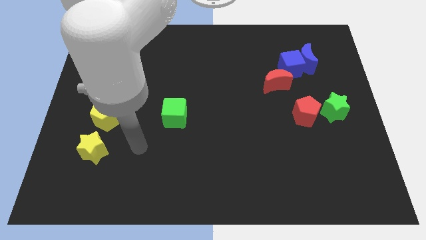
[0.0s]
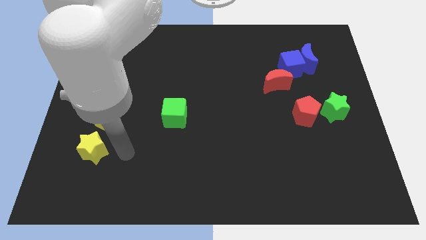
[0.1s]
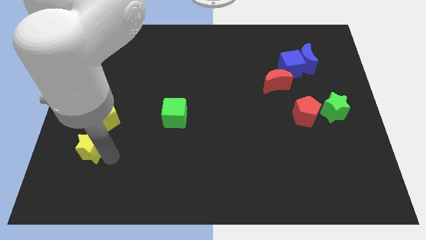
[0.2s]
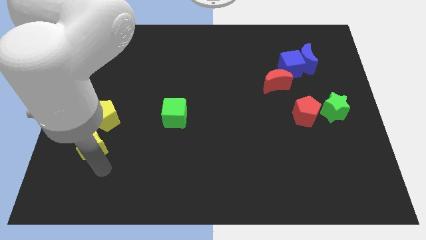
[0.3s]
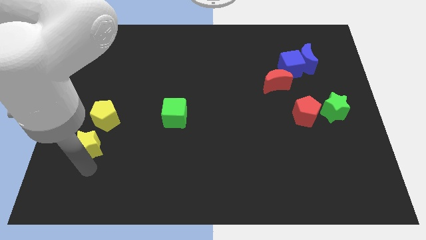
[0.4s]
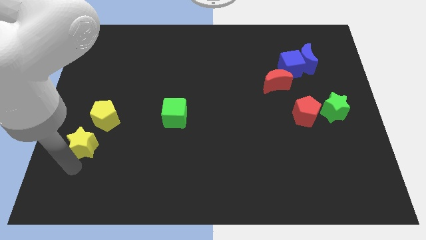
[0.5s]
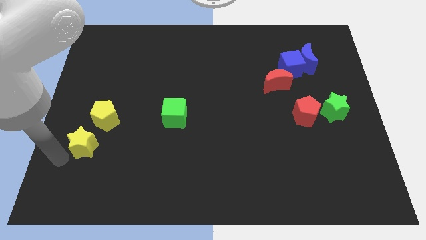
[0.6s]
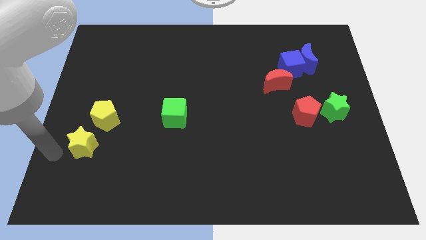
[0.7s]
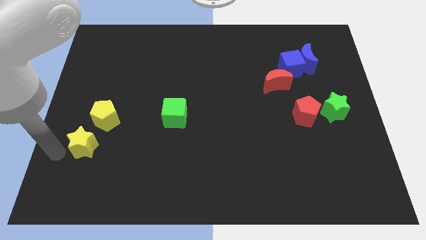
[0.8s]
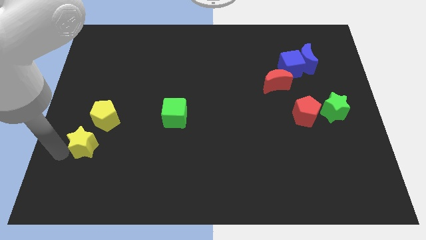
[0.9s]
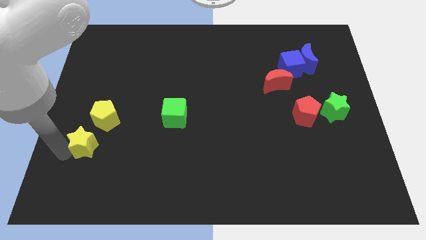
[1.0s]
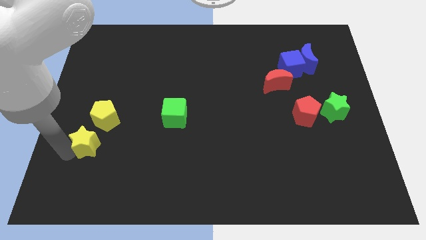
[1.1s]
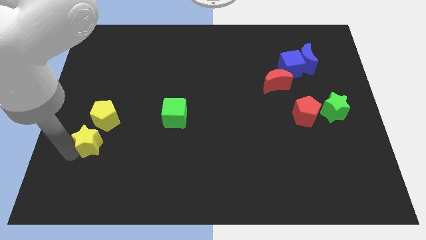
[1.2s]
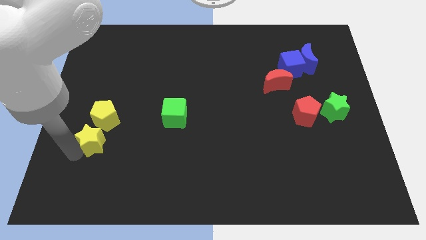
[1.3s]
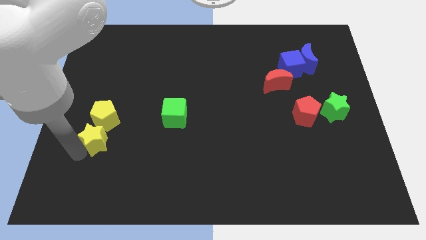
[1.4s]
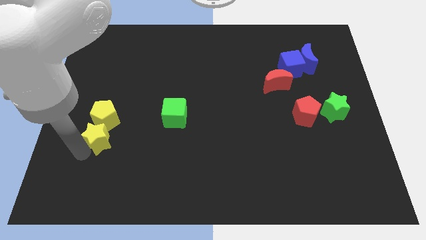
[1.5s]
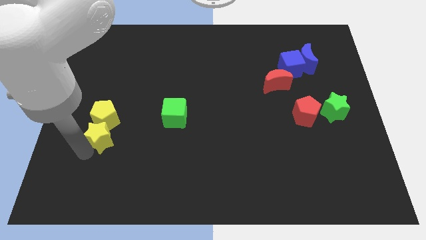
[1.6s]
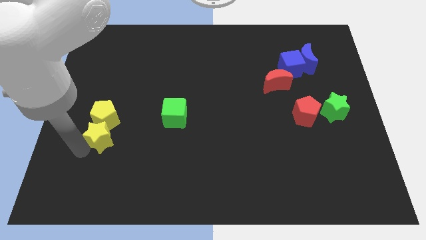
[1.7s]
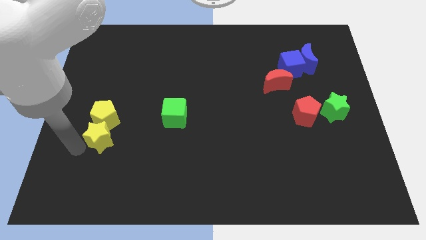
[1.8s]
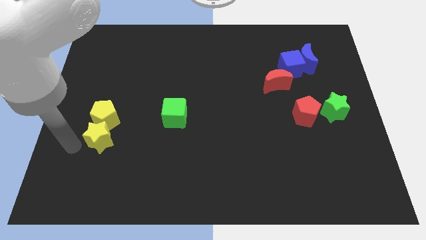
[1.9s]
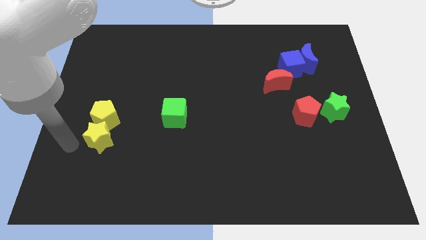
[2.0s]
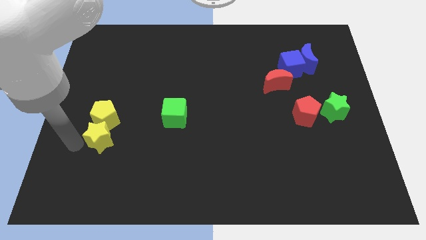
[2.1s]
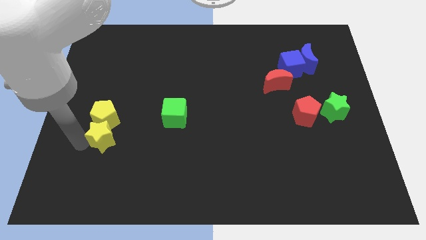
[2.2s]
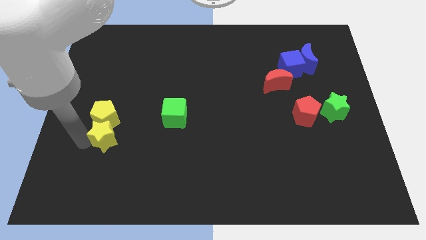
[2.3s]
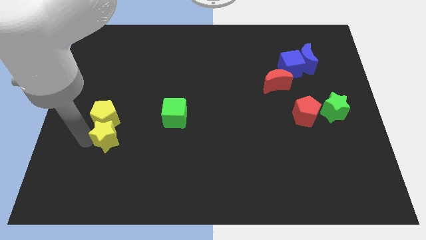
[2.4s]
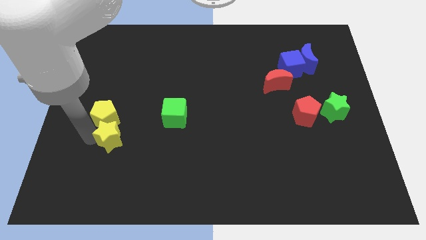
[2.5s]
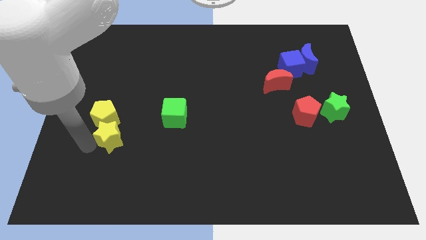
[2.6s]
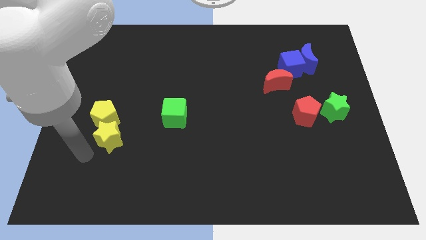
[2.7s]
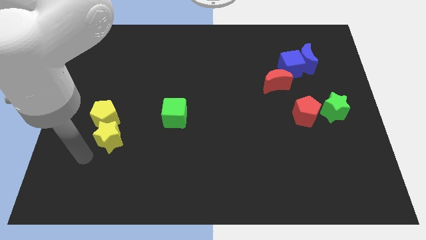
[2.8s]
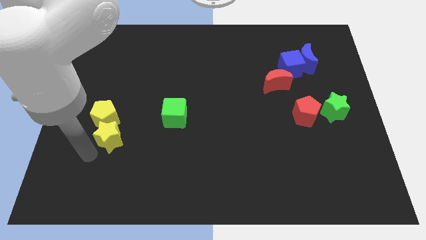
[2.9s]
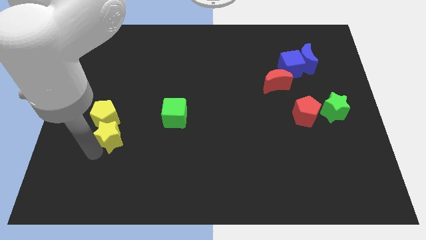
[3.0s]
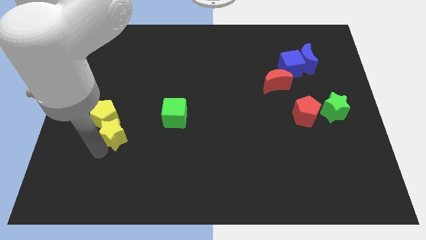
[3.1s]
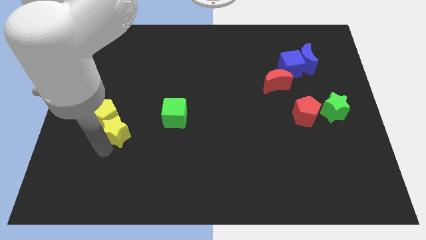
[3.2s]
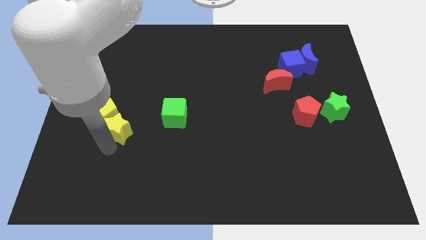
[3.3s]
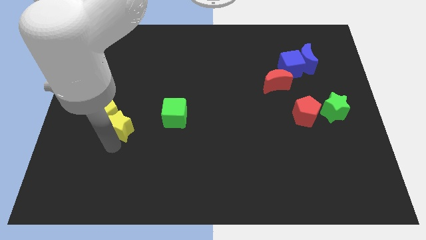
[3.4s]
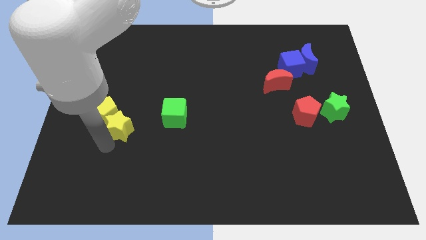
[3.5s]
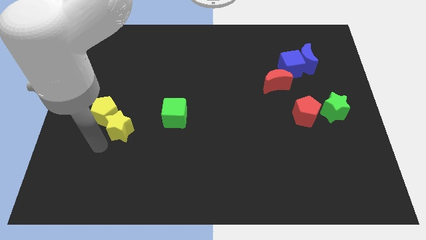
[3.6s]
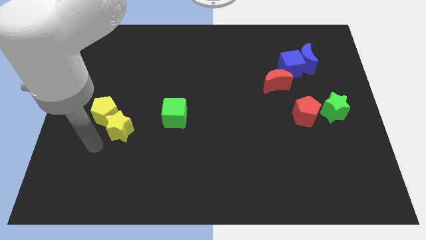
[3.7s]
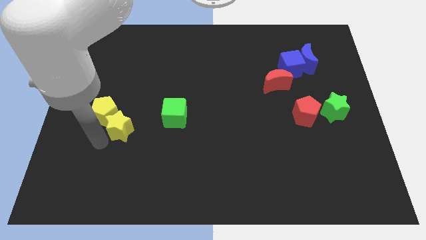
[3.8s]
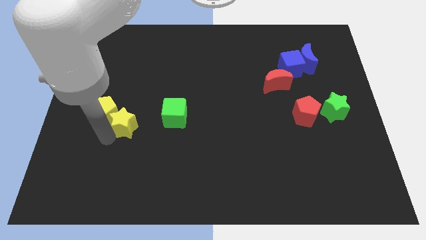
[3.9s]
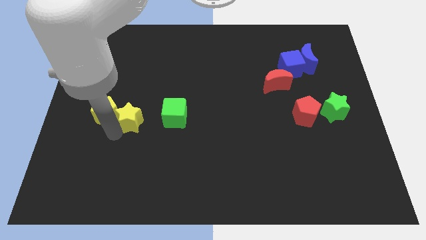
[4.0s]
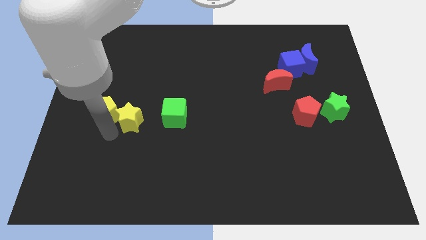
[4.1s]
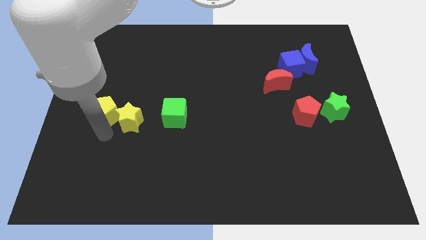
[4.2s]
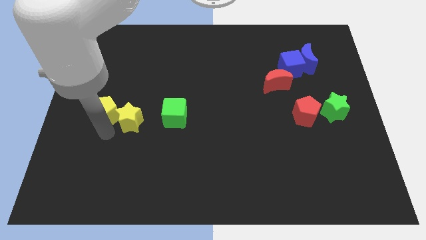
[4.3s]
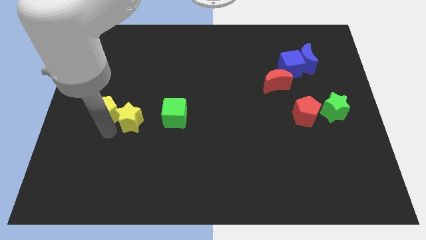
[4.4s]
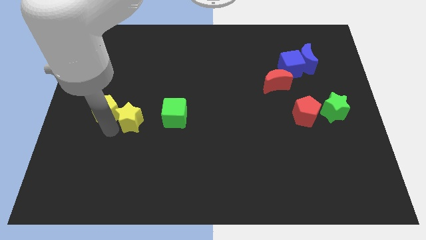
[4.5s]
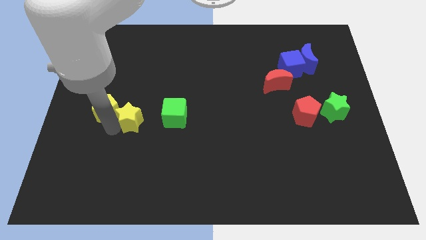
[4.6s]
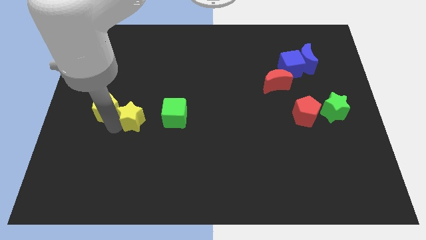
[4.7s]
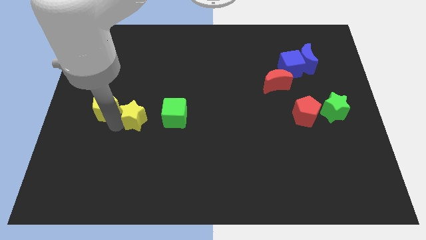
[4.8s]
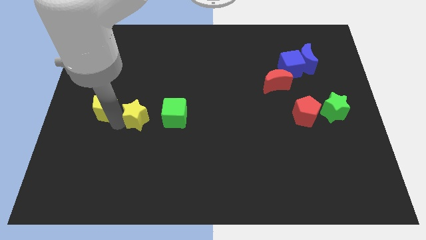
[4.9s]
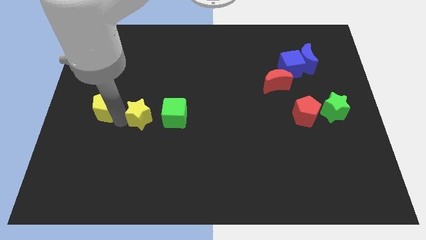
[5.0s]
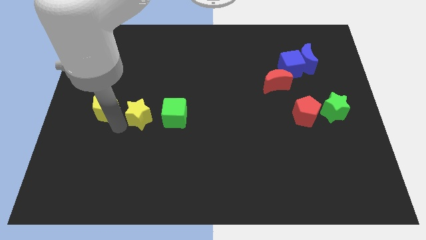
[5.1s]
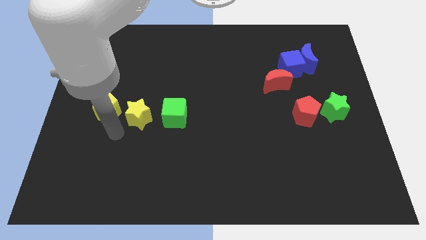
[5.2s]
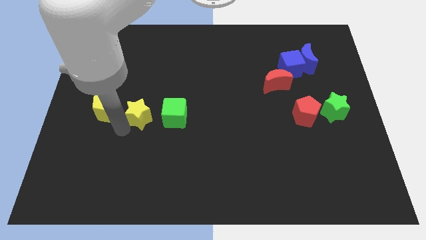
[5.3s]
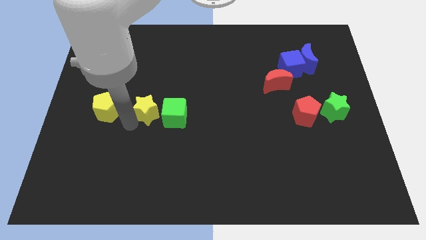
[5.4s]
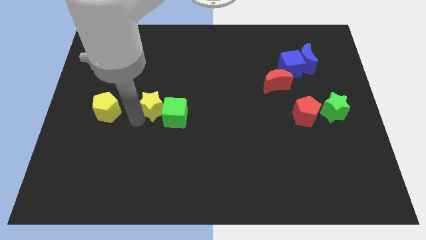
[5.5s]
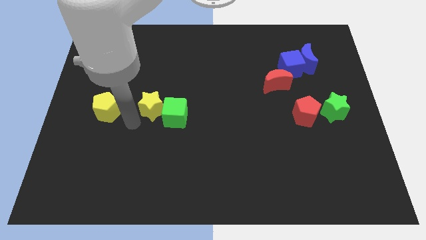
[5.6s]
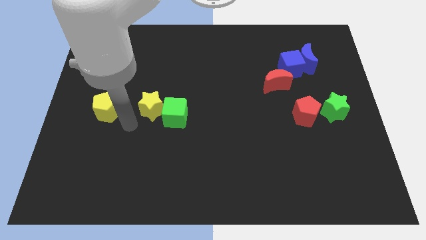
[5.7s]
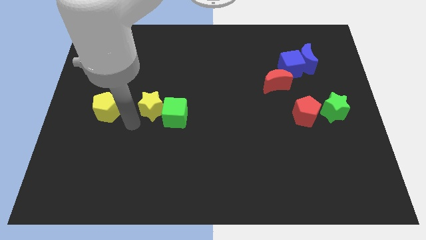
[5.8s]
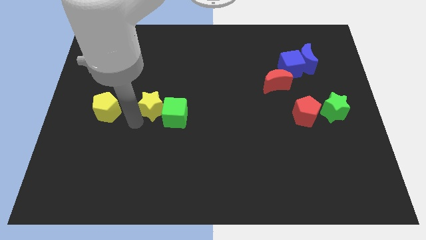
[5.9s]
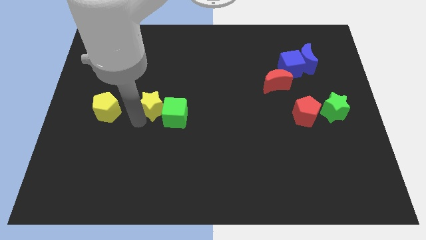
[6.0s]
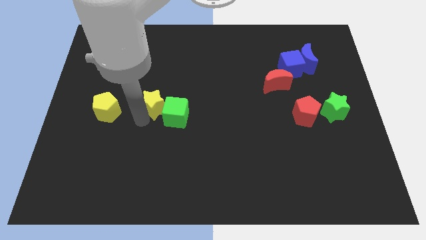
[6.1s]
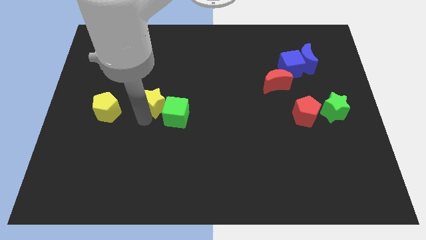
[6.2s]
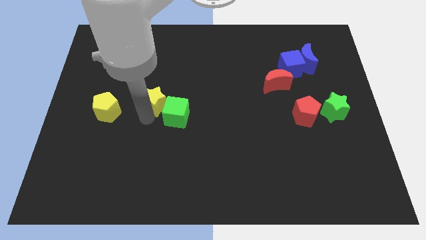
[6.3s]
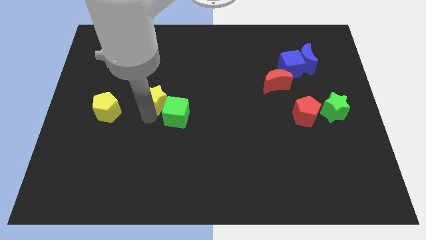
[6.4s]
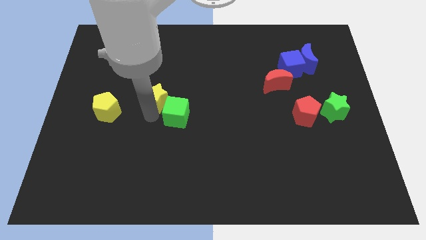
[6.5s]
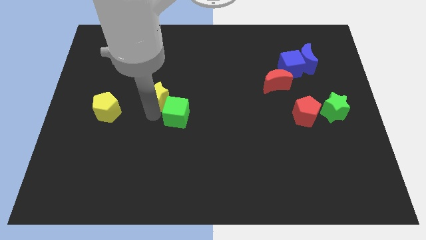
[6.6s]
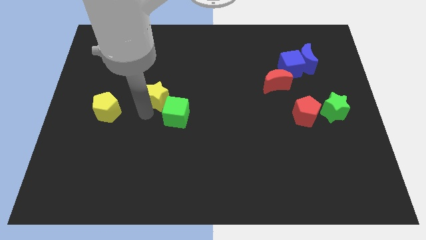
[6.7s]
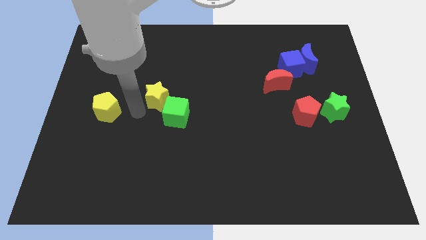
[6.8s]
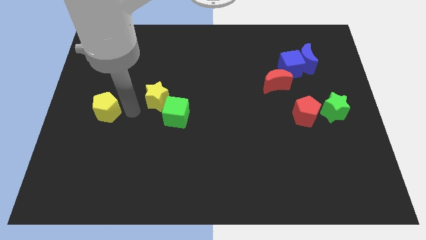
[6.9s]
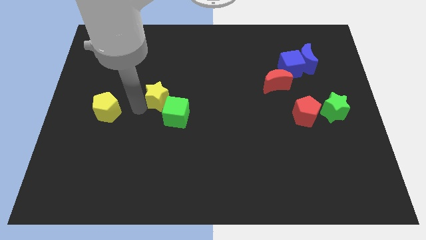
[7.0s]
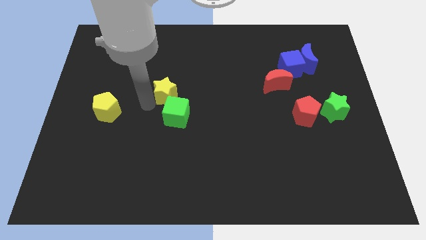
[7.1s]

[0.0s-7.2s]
slide the yellow star upwards and right

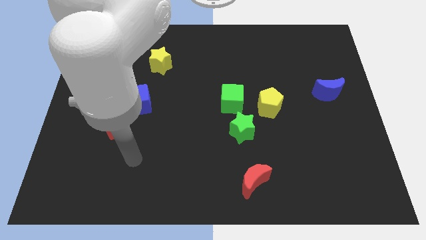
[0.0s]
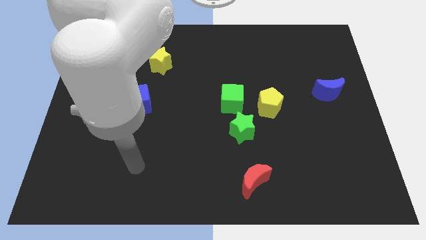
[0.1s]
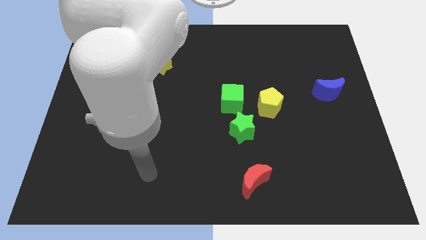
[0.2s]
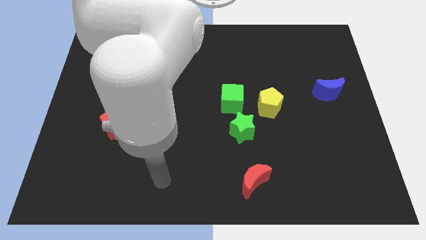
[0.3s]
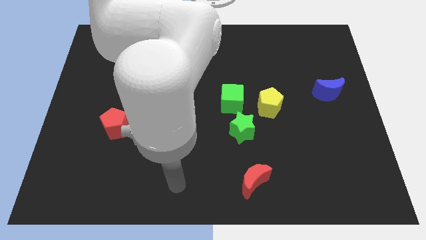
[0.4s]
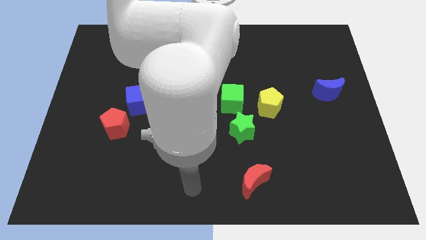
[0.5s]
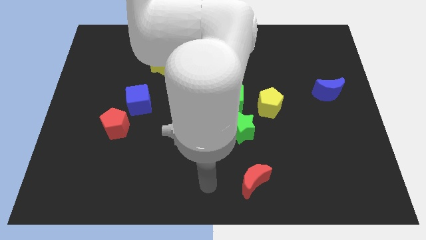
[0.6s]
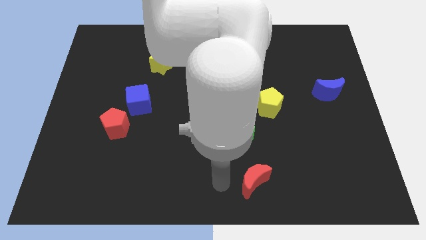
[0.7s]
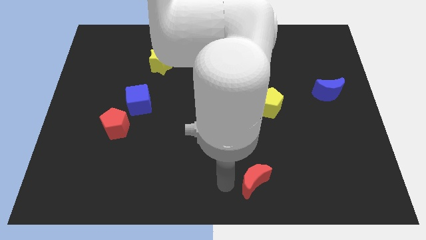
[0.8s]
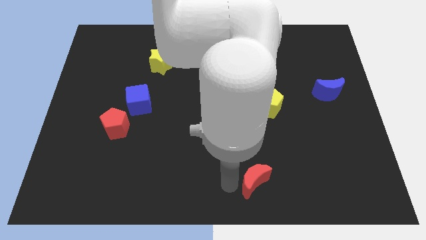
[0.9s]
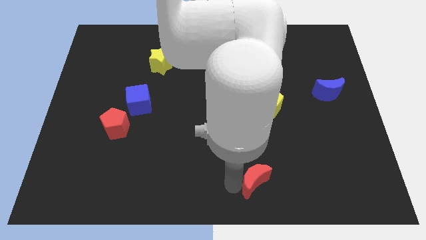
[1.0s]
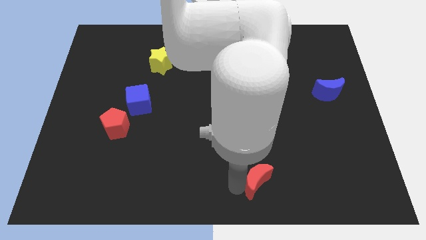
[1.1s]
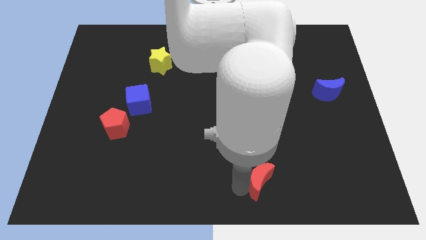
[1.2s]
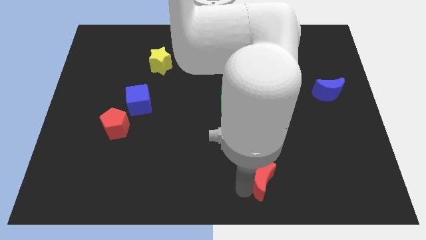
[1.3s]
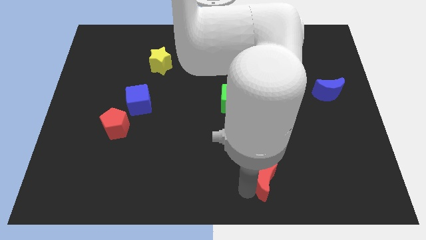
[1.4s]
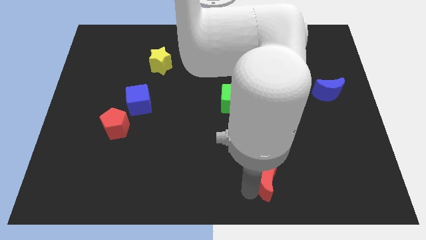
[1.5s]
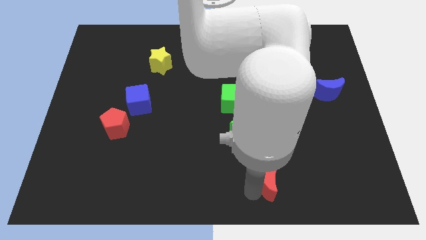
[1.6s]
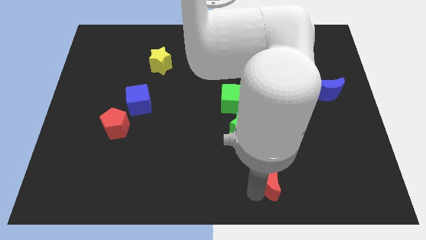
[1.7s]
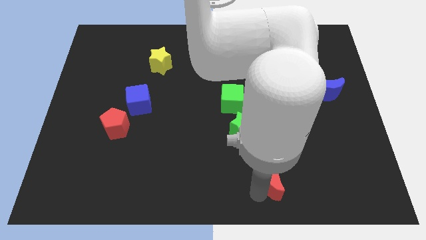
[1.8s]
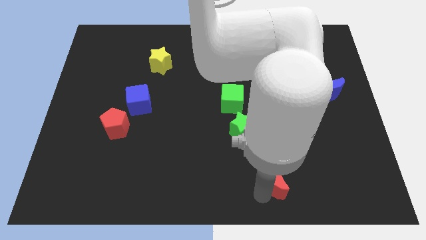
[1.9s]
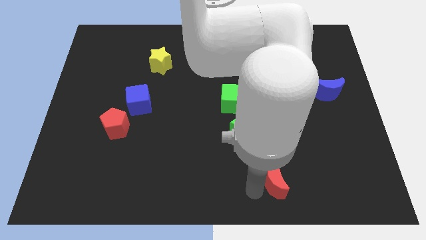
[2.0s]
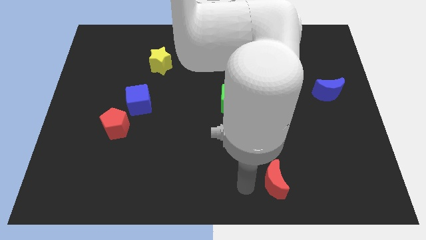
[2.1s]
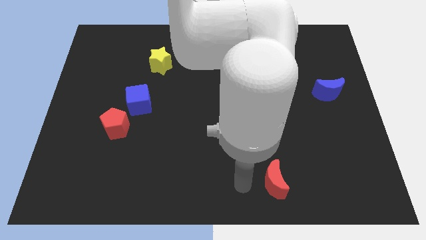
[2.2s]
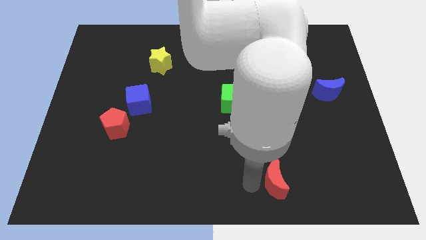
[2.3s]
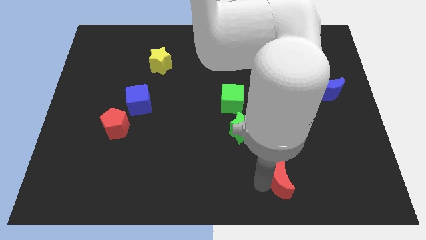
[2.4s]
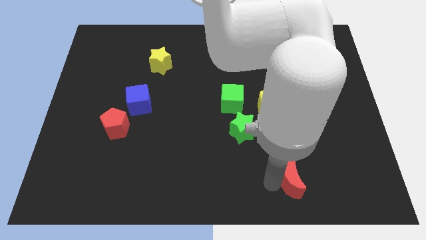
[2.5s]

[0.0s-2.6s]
slightly move the red moon right
